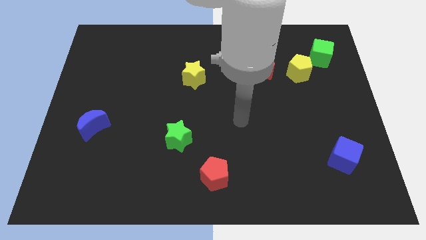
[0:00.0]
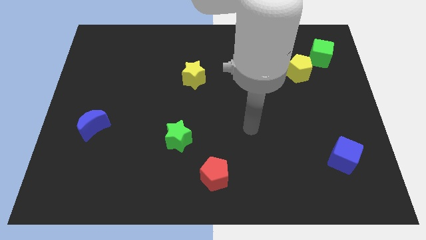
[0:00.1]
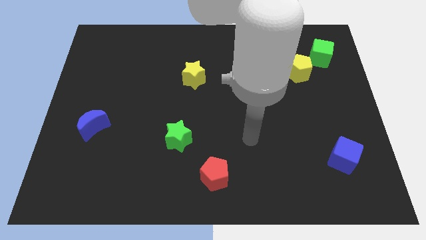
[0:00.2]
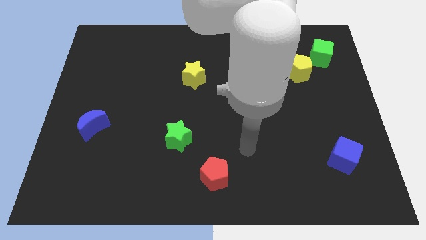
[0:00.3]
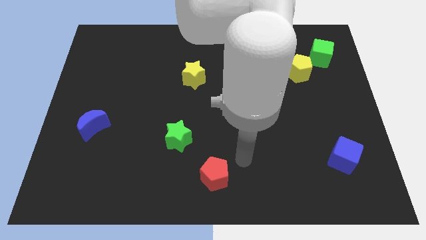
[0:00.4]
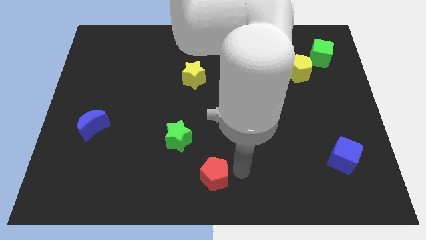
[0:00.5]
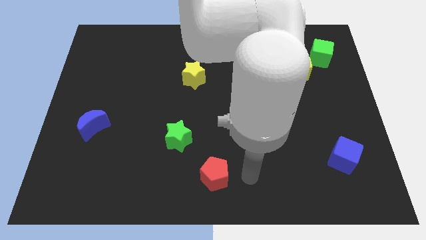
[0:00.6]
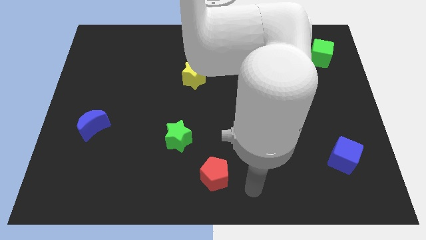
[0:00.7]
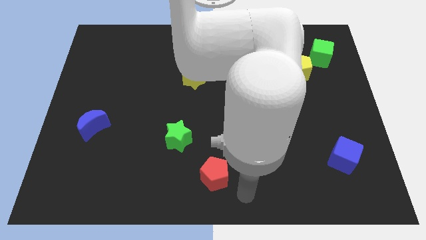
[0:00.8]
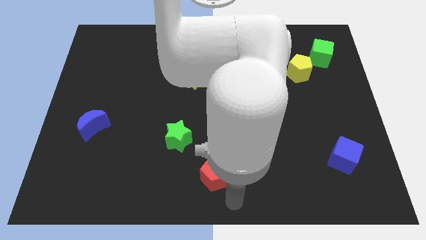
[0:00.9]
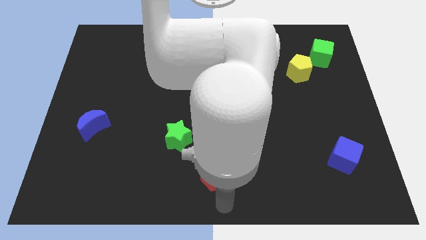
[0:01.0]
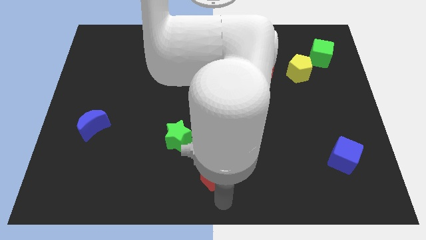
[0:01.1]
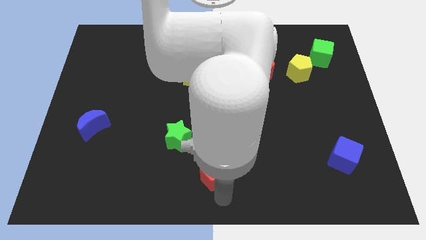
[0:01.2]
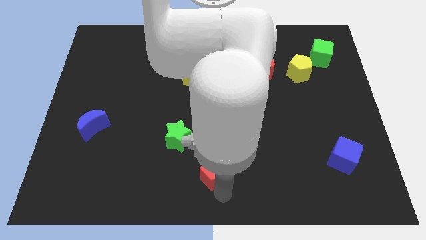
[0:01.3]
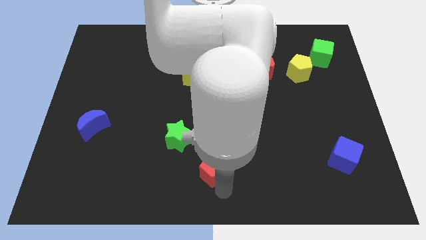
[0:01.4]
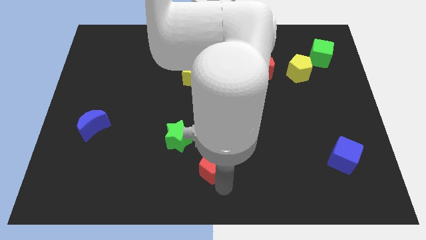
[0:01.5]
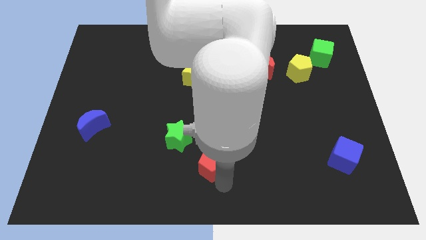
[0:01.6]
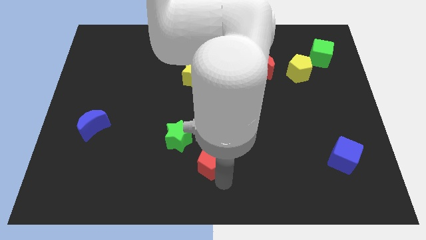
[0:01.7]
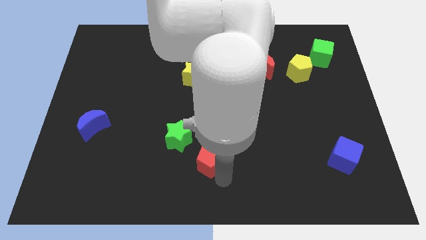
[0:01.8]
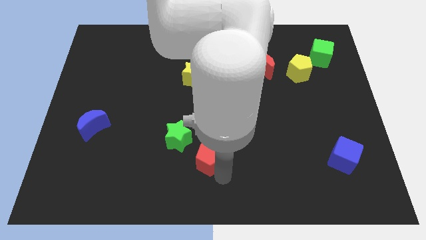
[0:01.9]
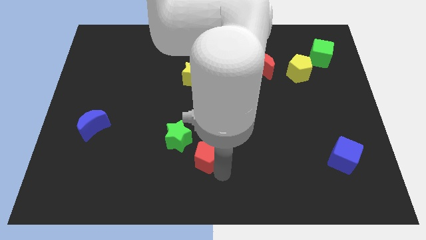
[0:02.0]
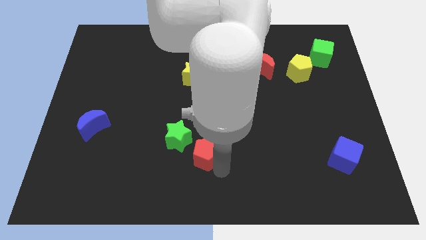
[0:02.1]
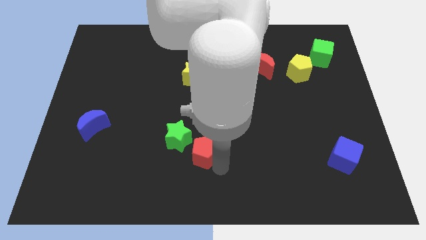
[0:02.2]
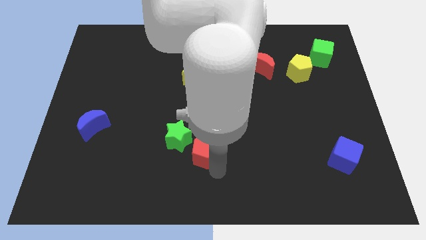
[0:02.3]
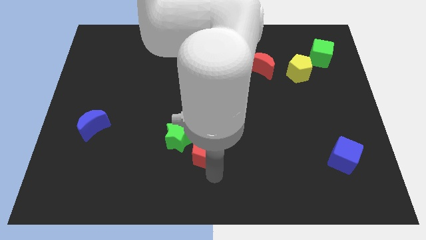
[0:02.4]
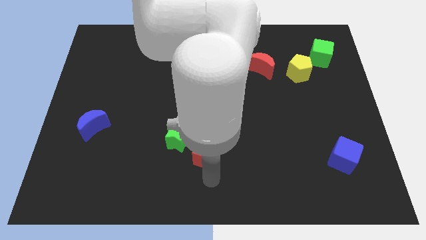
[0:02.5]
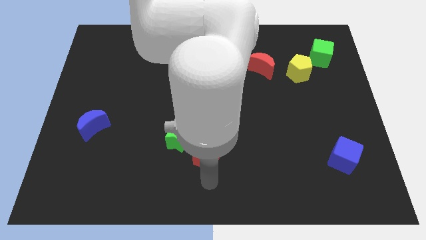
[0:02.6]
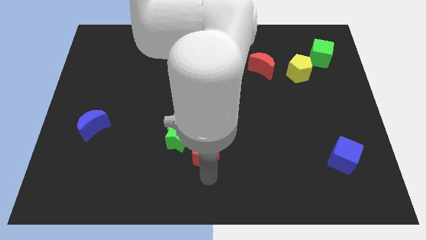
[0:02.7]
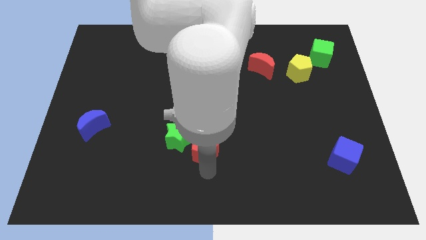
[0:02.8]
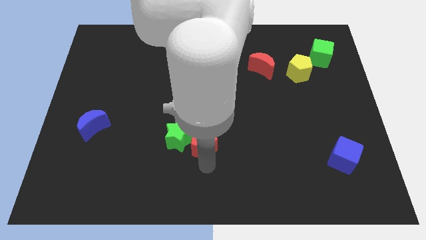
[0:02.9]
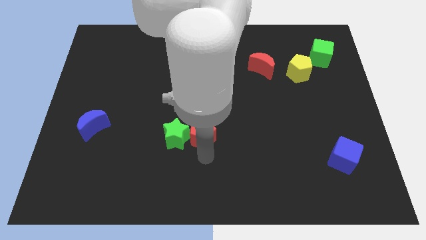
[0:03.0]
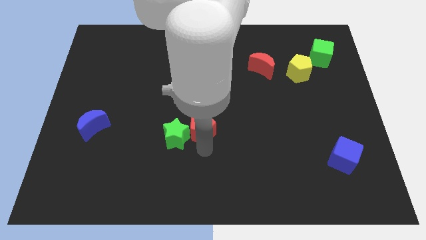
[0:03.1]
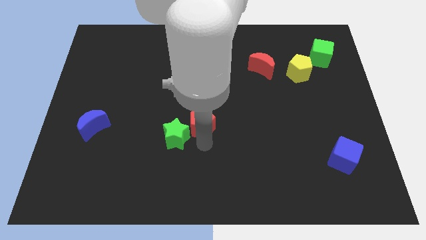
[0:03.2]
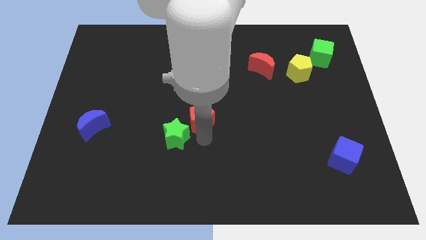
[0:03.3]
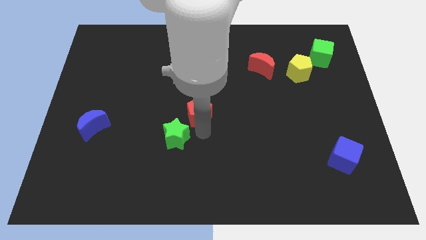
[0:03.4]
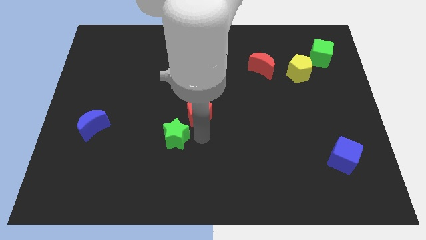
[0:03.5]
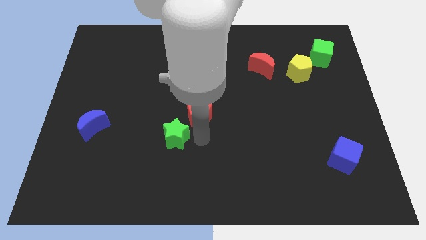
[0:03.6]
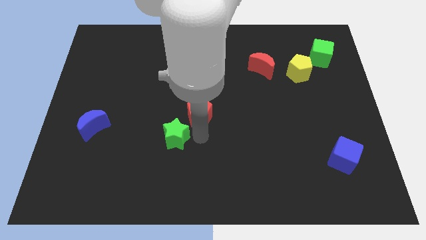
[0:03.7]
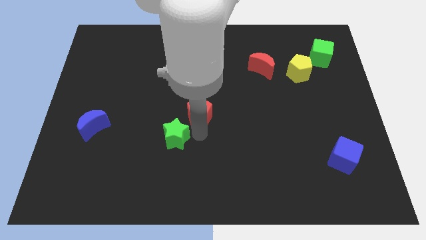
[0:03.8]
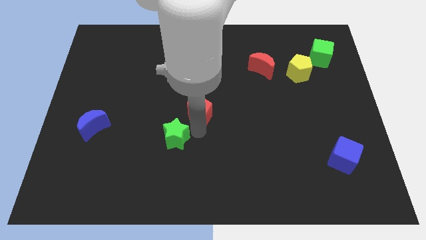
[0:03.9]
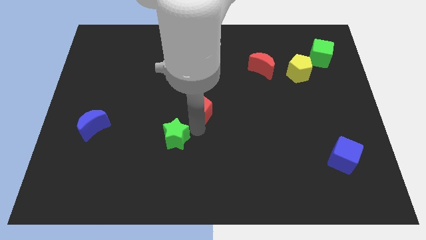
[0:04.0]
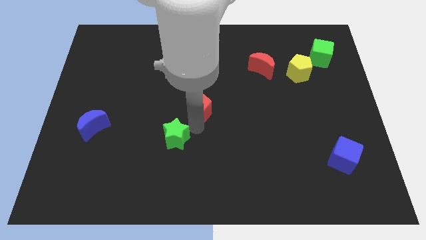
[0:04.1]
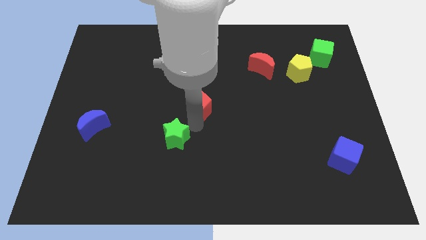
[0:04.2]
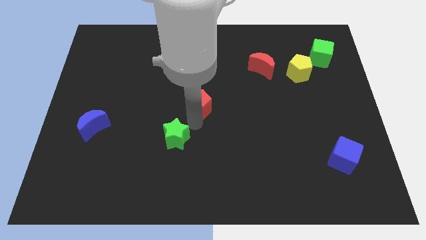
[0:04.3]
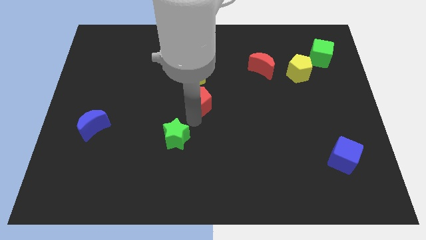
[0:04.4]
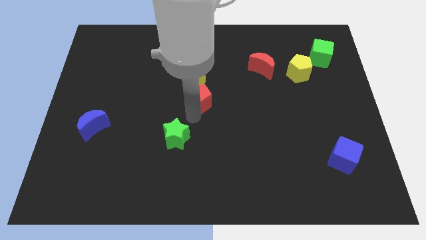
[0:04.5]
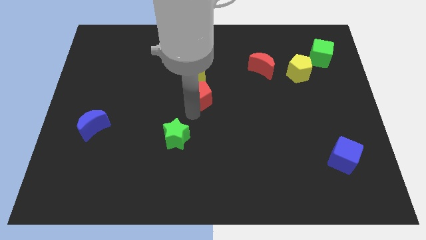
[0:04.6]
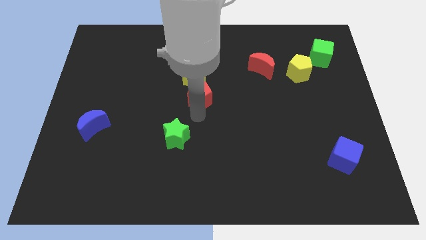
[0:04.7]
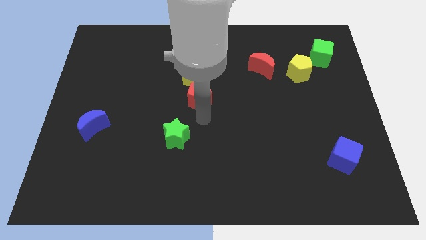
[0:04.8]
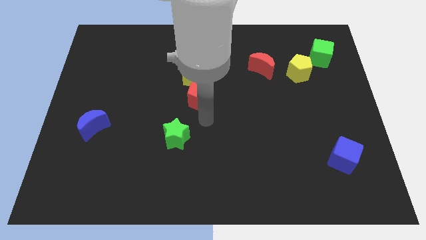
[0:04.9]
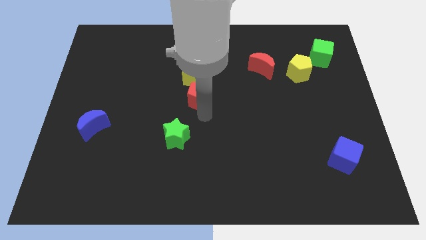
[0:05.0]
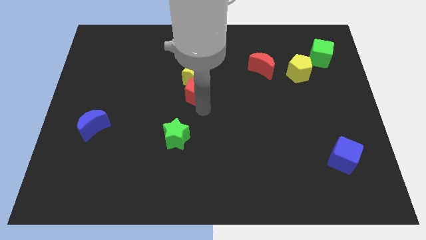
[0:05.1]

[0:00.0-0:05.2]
put the red pentagon to the yellow star

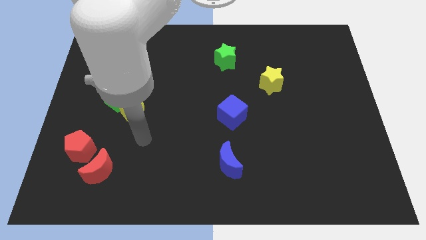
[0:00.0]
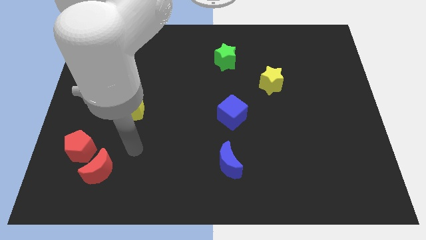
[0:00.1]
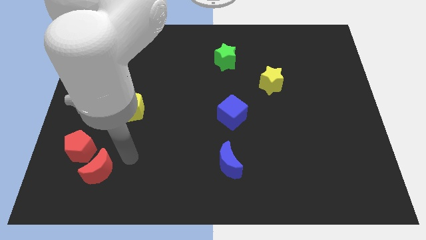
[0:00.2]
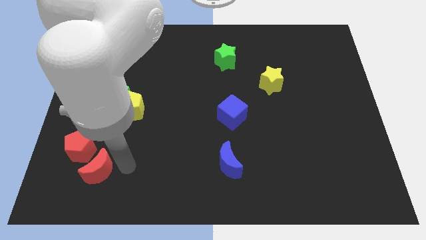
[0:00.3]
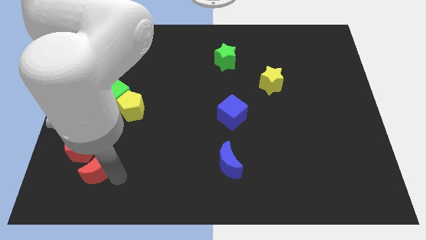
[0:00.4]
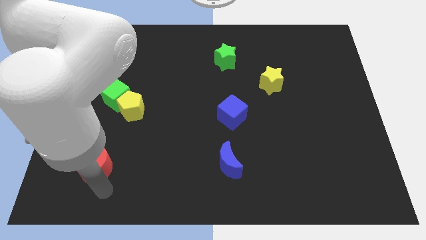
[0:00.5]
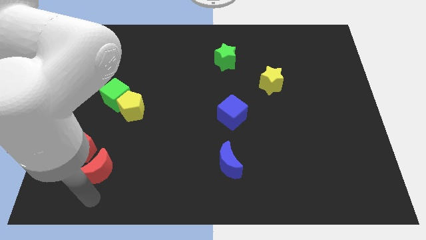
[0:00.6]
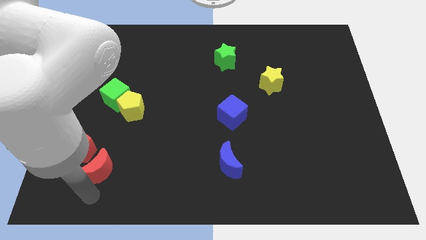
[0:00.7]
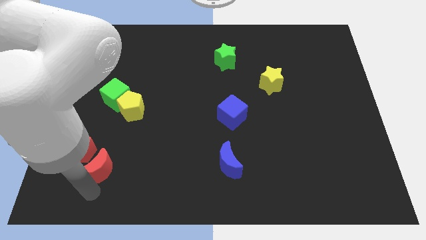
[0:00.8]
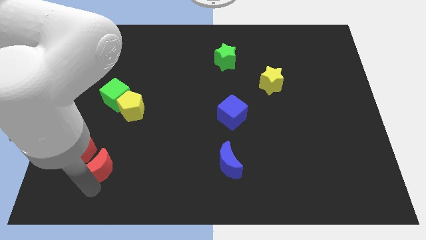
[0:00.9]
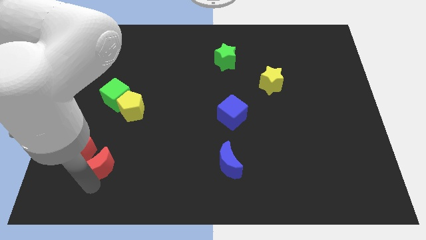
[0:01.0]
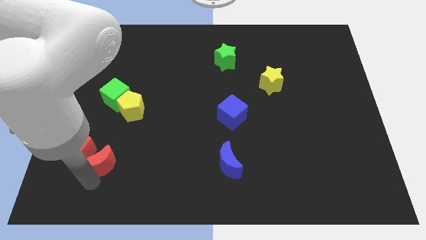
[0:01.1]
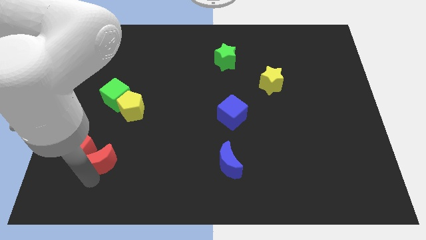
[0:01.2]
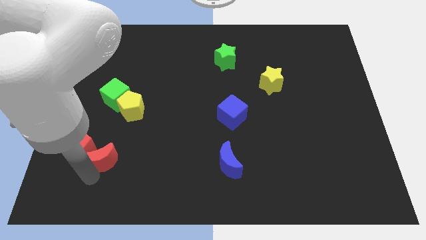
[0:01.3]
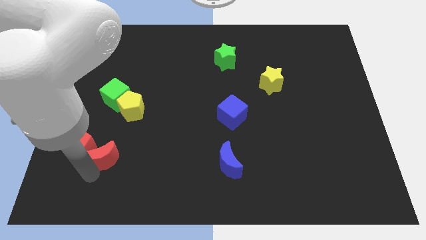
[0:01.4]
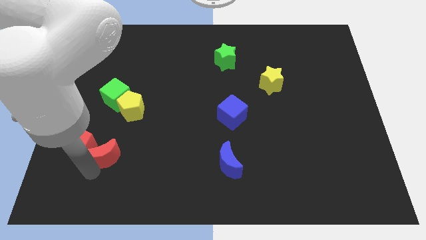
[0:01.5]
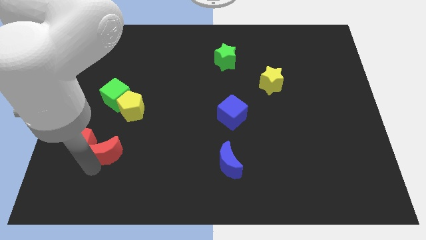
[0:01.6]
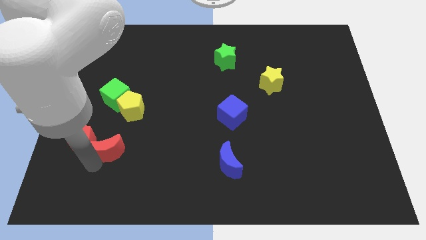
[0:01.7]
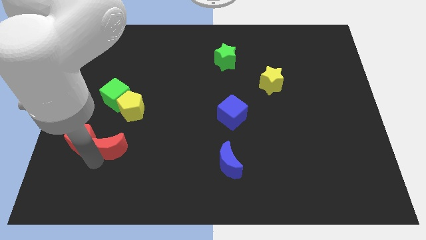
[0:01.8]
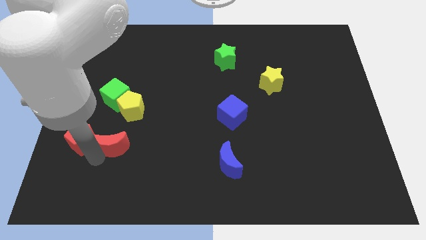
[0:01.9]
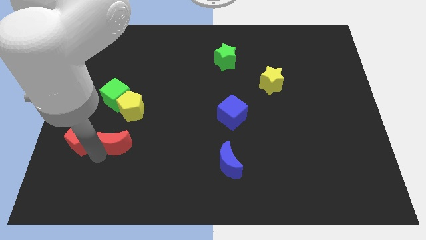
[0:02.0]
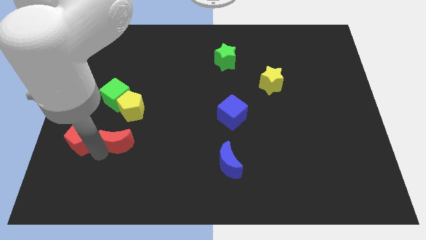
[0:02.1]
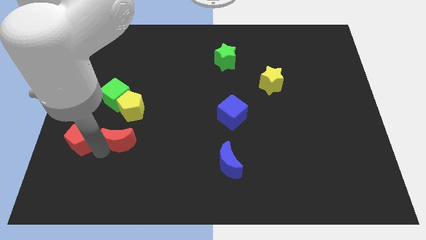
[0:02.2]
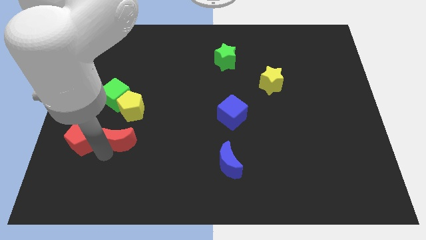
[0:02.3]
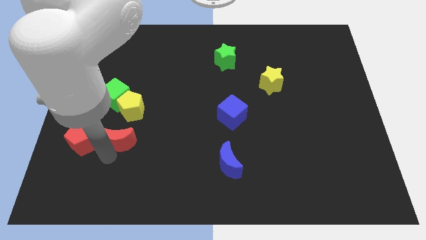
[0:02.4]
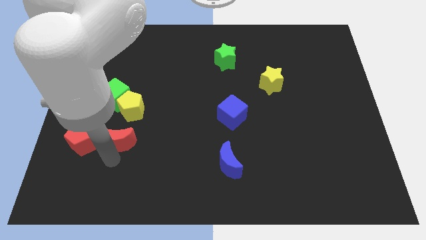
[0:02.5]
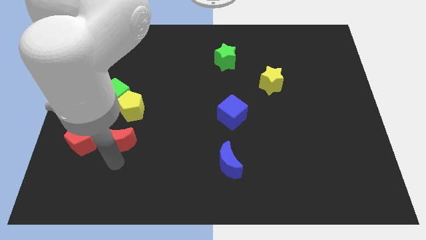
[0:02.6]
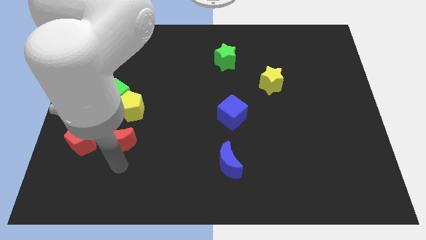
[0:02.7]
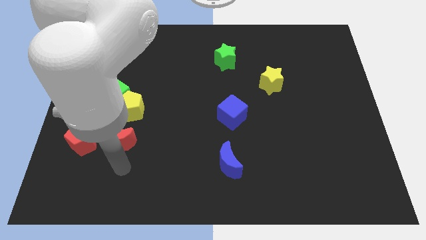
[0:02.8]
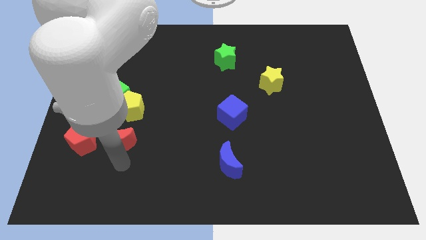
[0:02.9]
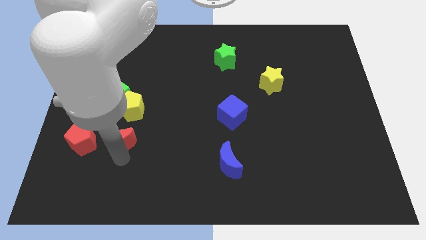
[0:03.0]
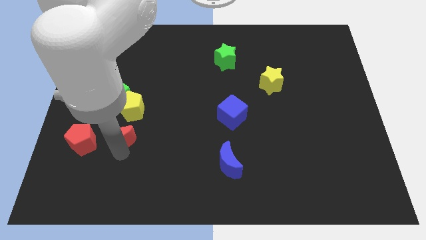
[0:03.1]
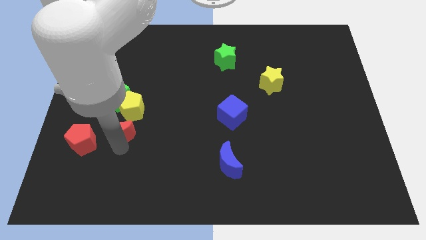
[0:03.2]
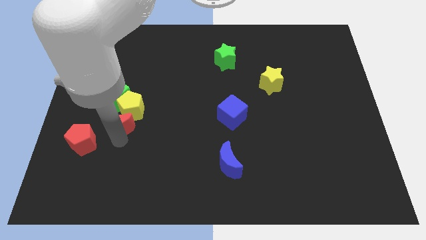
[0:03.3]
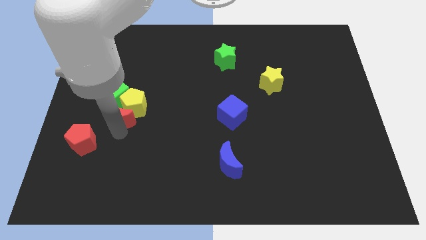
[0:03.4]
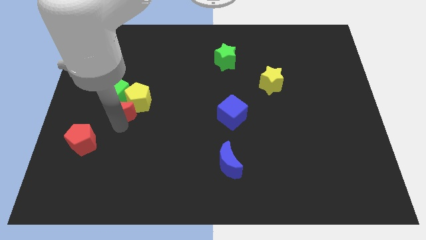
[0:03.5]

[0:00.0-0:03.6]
put the red moon to the green cube
